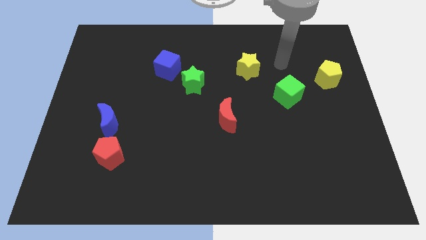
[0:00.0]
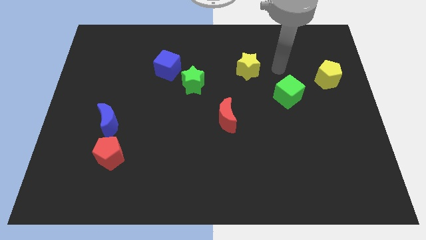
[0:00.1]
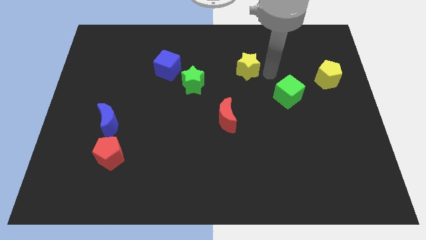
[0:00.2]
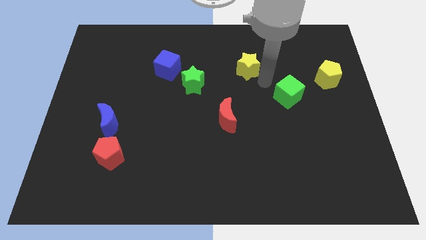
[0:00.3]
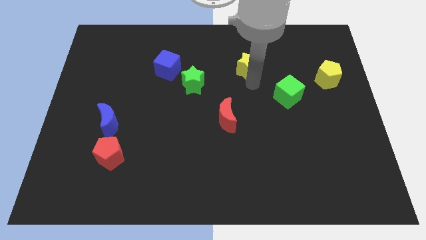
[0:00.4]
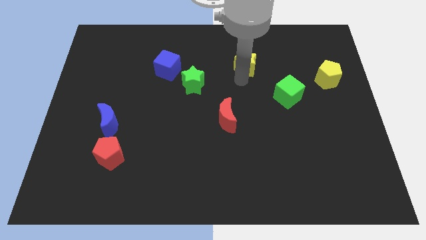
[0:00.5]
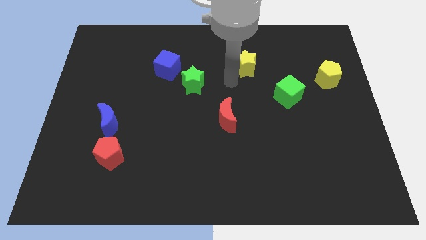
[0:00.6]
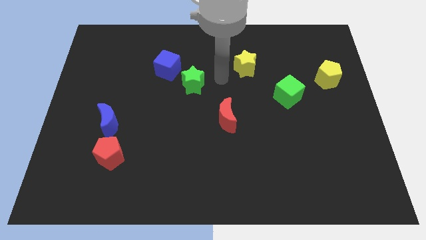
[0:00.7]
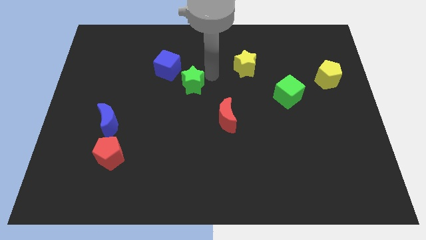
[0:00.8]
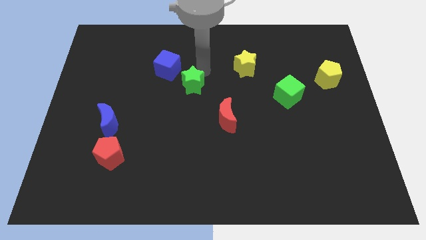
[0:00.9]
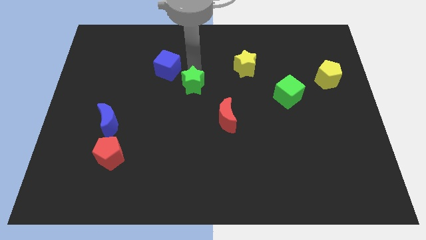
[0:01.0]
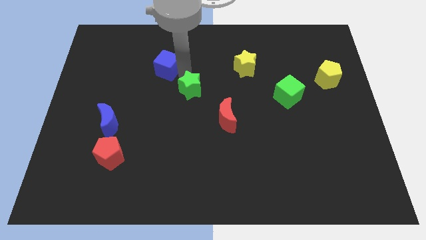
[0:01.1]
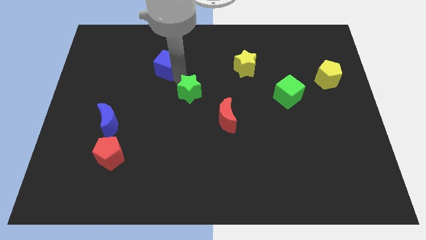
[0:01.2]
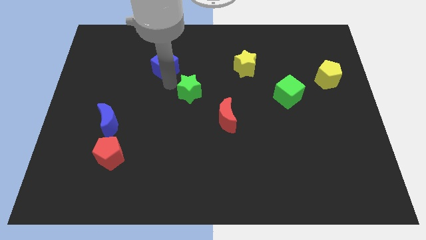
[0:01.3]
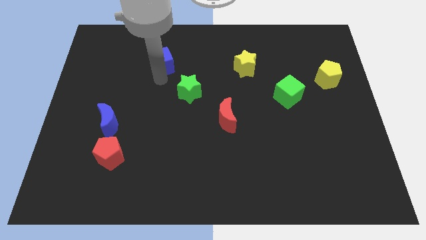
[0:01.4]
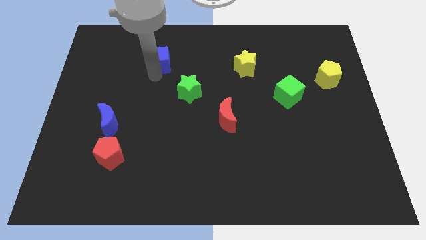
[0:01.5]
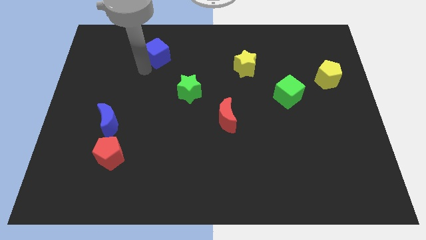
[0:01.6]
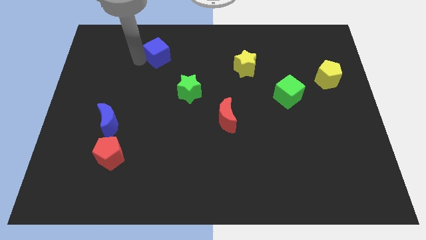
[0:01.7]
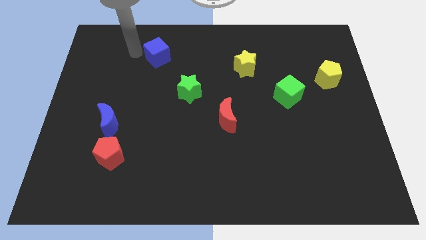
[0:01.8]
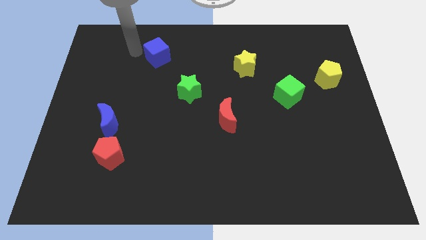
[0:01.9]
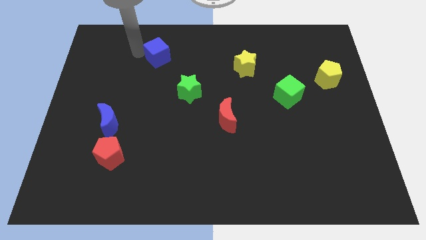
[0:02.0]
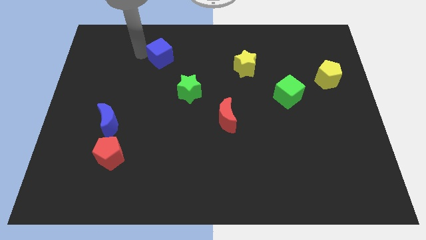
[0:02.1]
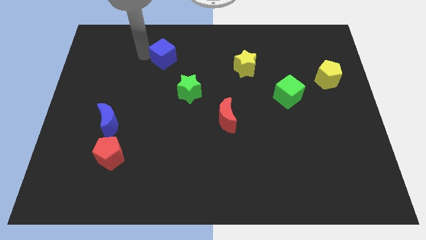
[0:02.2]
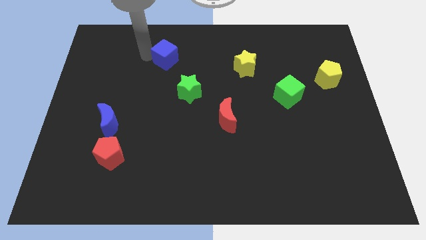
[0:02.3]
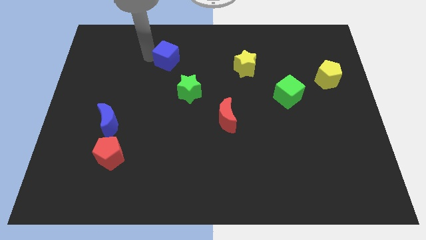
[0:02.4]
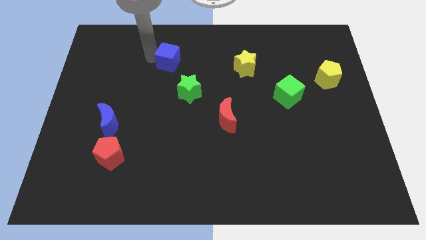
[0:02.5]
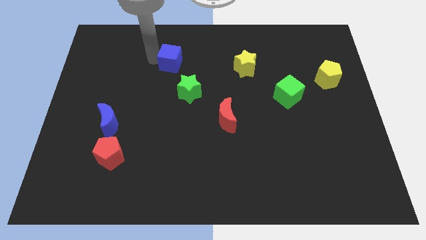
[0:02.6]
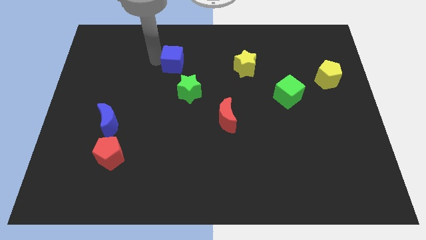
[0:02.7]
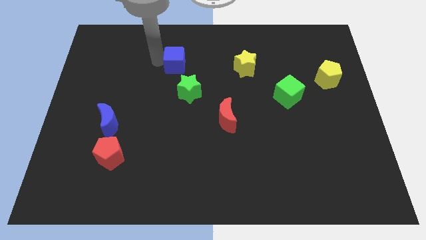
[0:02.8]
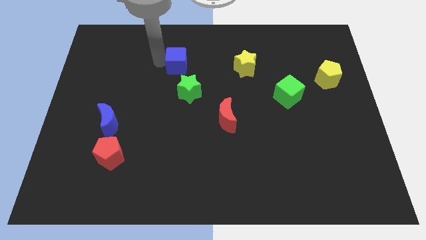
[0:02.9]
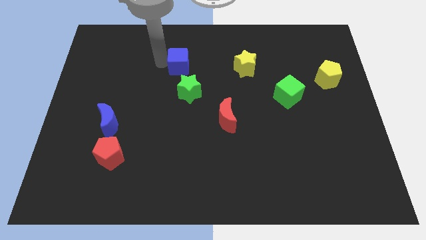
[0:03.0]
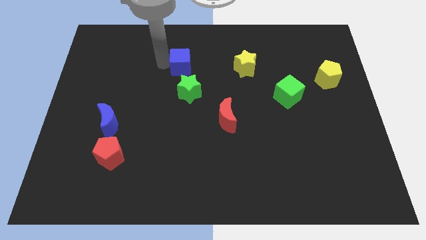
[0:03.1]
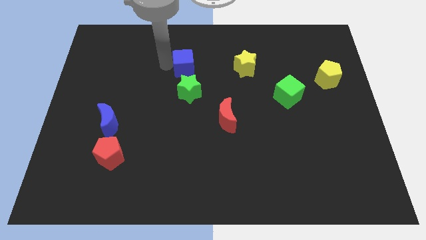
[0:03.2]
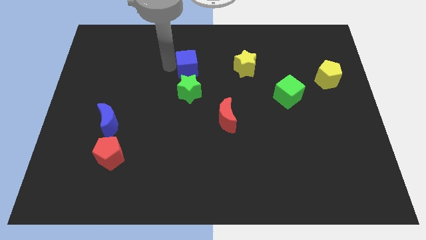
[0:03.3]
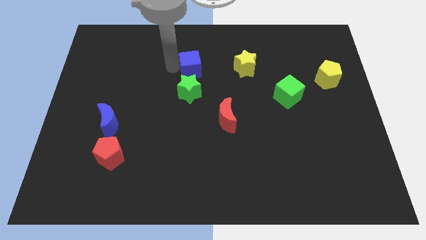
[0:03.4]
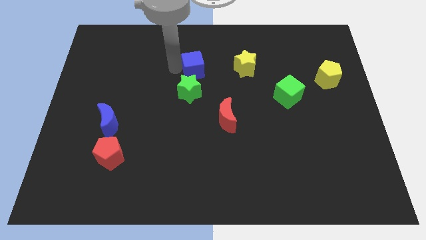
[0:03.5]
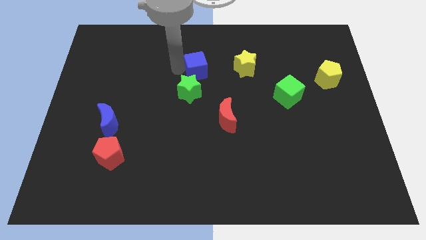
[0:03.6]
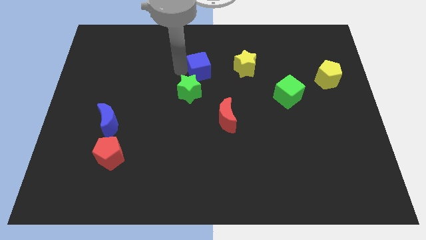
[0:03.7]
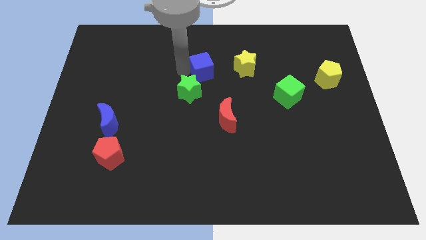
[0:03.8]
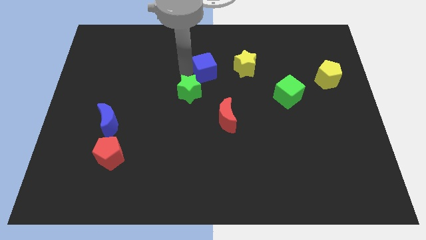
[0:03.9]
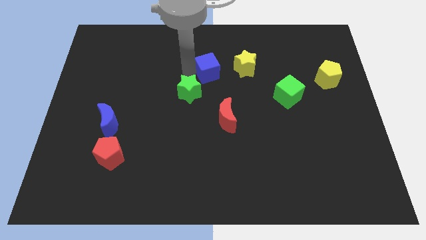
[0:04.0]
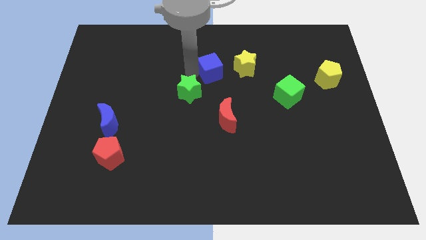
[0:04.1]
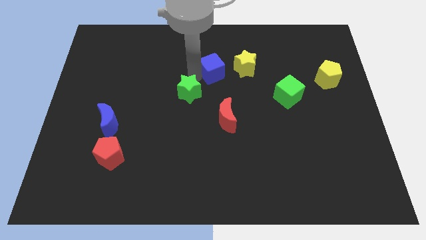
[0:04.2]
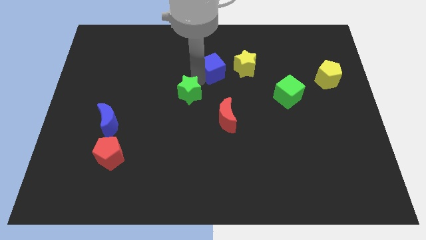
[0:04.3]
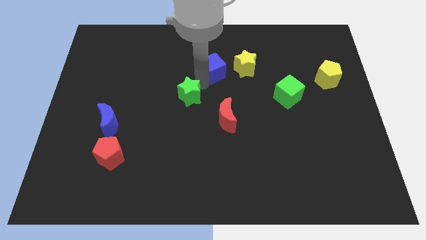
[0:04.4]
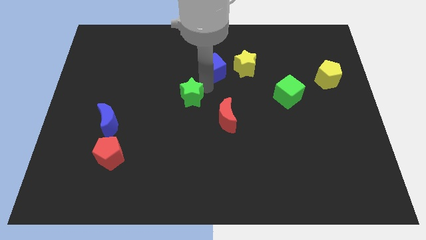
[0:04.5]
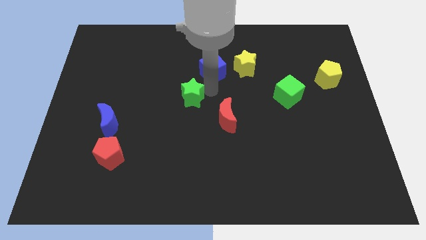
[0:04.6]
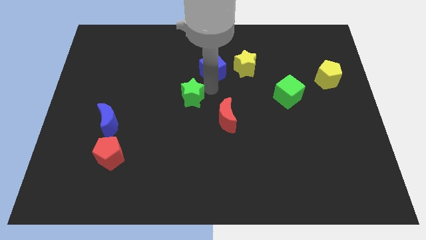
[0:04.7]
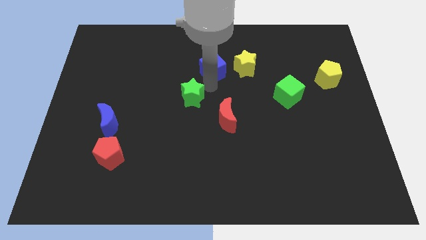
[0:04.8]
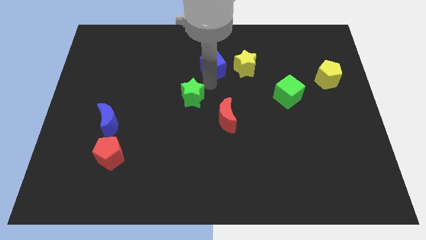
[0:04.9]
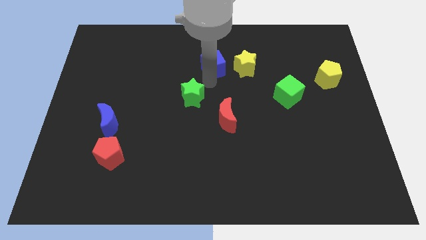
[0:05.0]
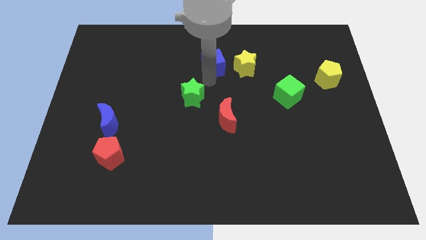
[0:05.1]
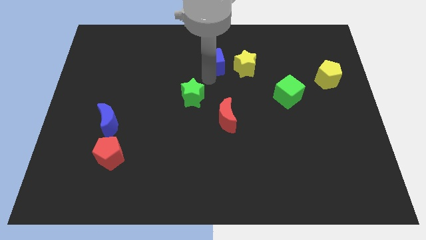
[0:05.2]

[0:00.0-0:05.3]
push the blue cube diagonally up and to the left of the yellow star

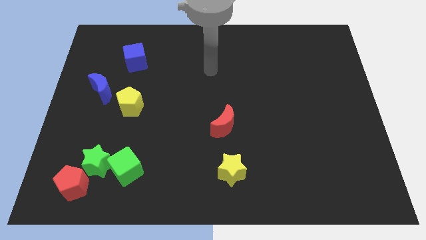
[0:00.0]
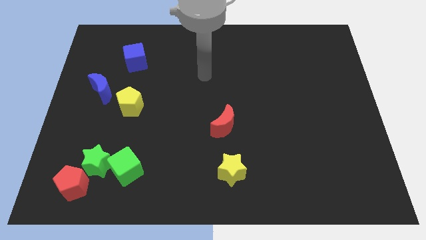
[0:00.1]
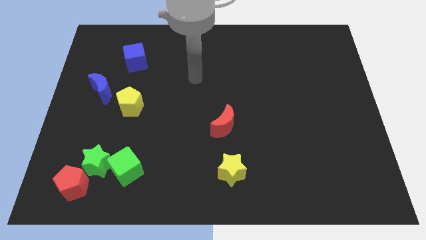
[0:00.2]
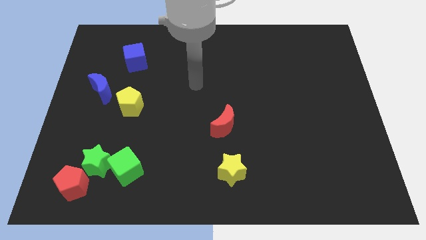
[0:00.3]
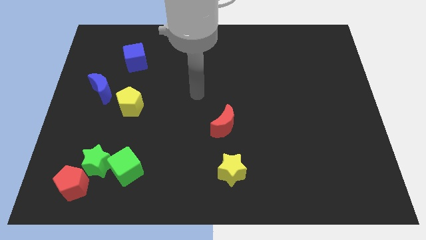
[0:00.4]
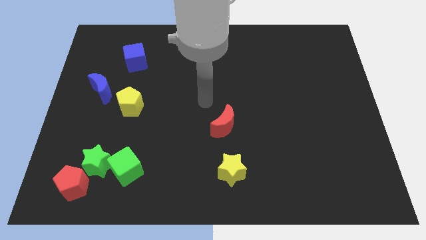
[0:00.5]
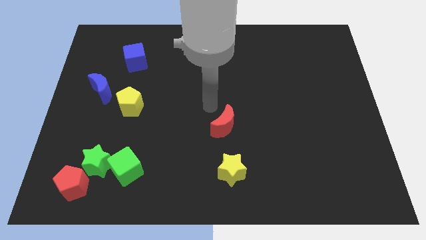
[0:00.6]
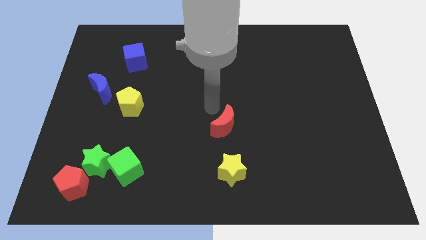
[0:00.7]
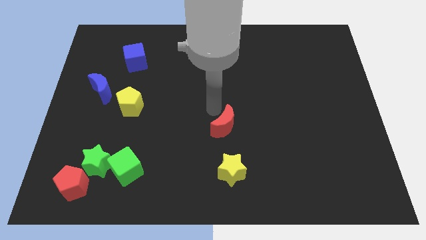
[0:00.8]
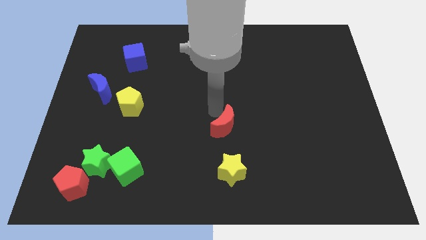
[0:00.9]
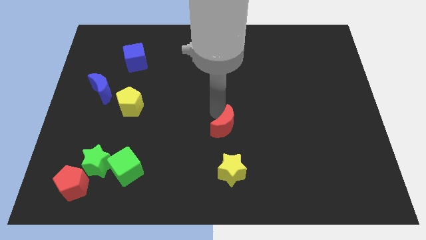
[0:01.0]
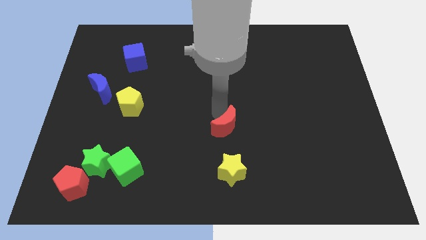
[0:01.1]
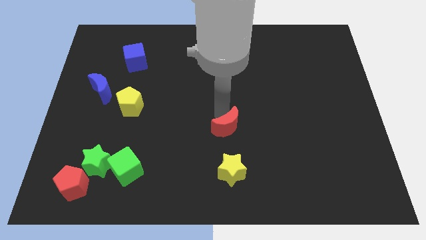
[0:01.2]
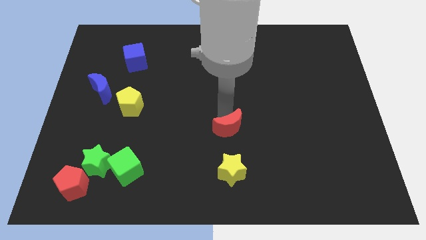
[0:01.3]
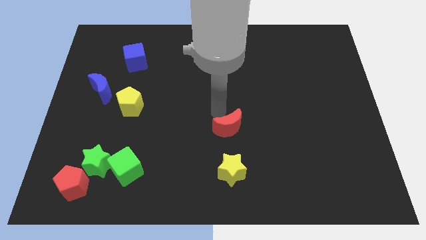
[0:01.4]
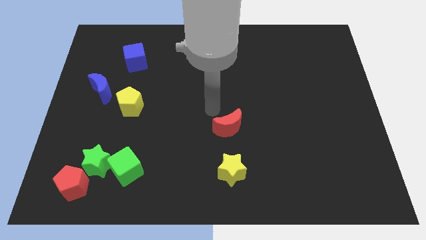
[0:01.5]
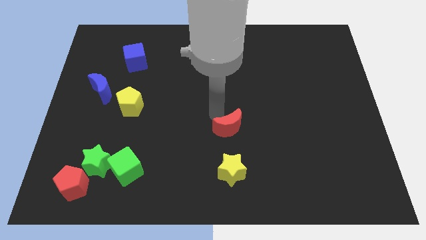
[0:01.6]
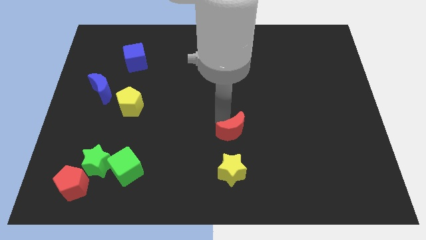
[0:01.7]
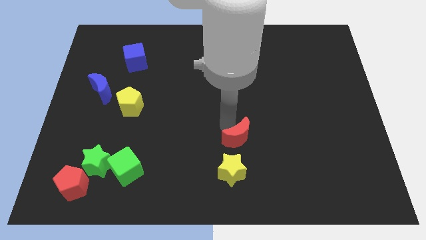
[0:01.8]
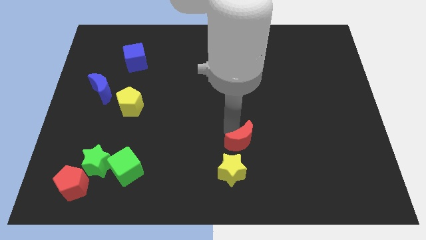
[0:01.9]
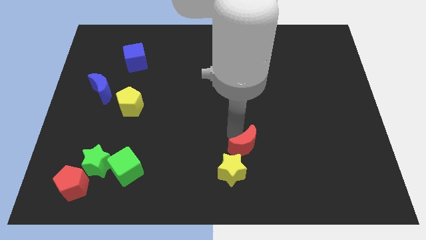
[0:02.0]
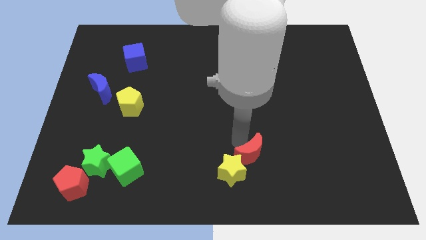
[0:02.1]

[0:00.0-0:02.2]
push the red moon just right of the yellow star

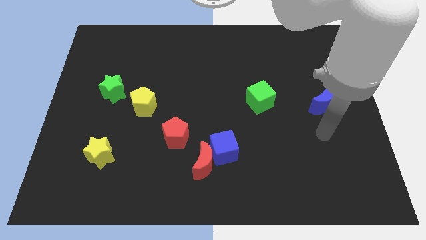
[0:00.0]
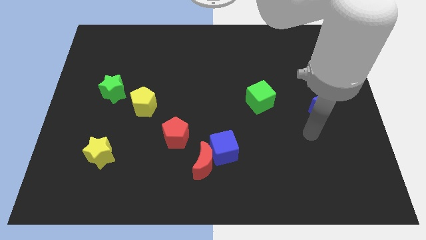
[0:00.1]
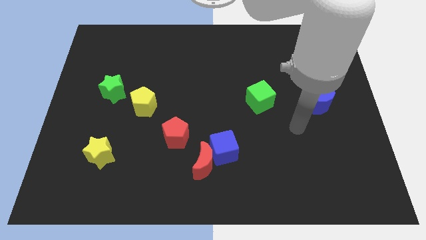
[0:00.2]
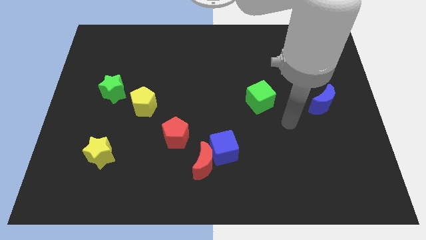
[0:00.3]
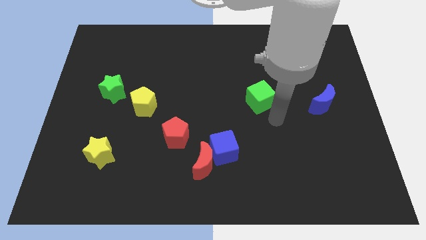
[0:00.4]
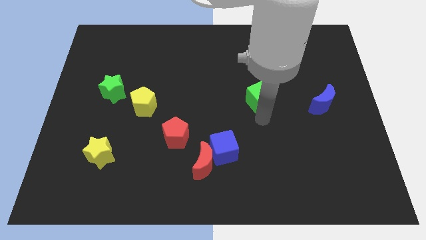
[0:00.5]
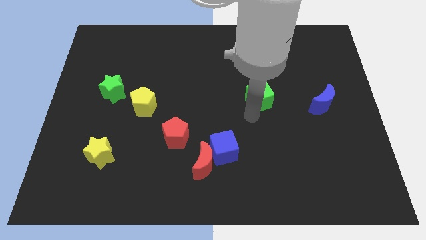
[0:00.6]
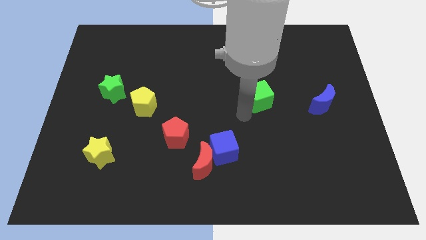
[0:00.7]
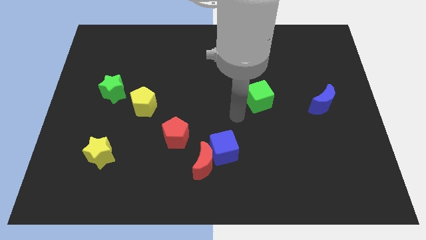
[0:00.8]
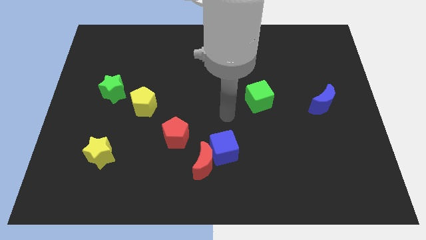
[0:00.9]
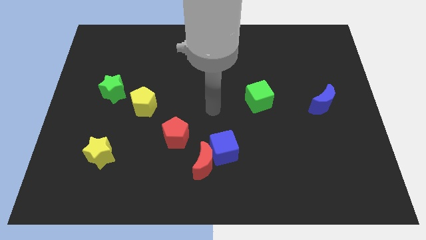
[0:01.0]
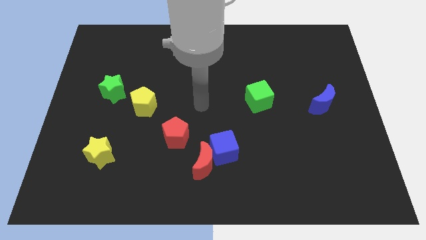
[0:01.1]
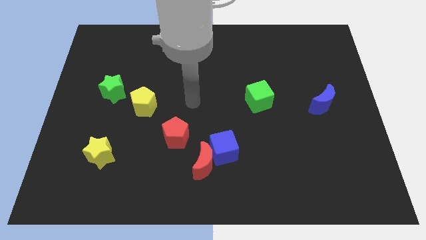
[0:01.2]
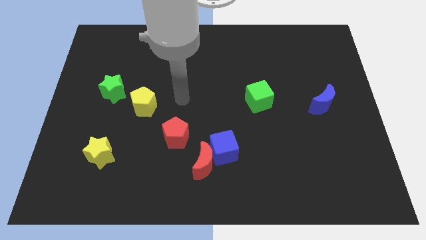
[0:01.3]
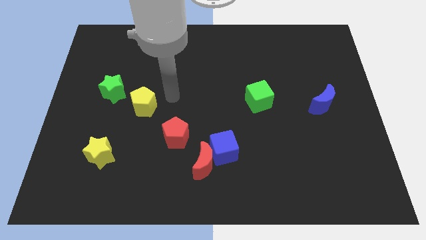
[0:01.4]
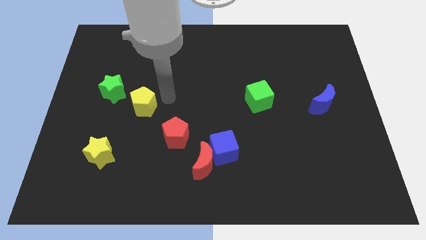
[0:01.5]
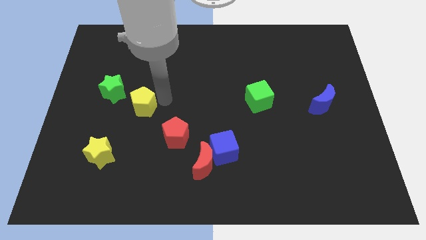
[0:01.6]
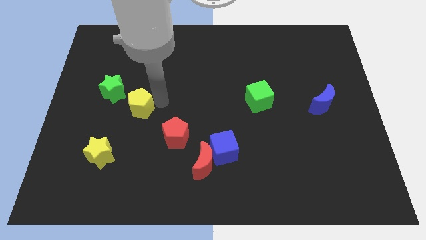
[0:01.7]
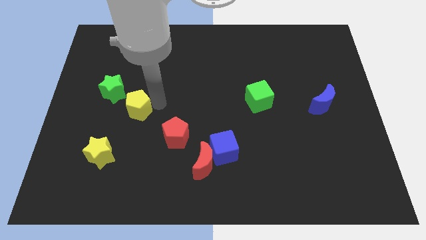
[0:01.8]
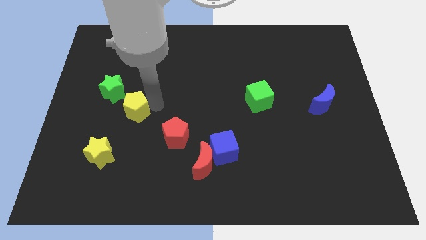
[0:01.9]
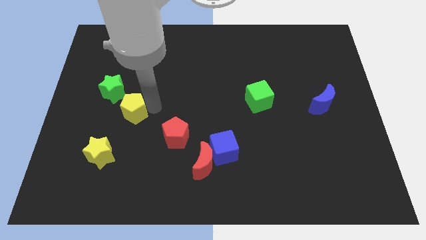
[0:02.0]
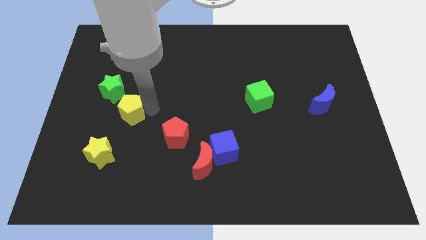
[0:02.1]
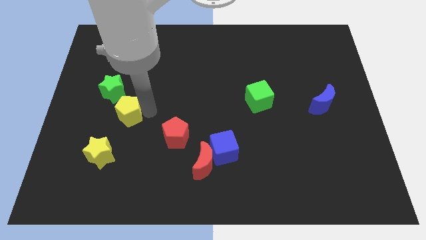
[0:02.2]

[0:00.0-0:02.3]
put the yellow pentagon above the yellow star
